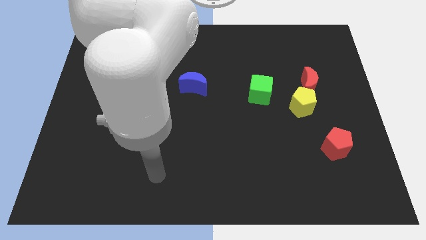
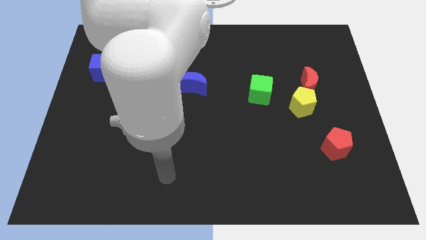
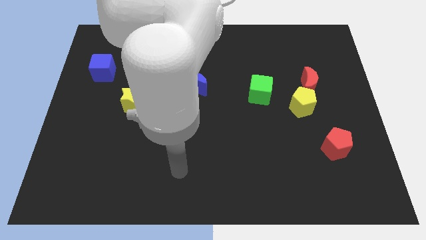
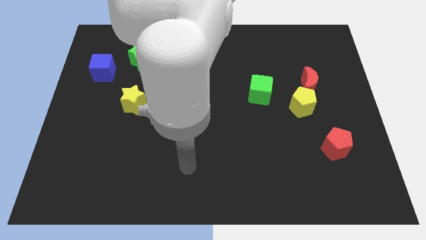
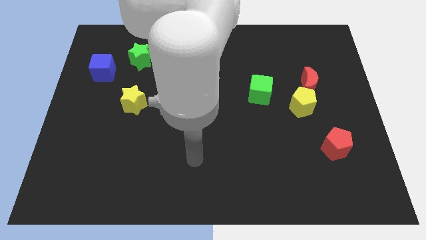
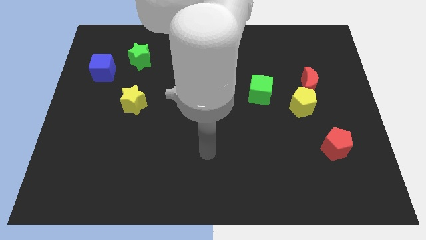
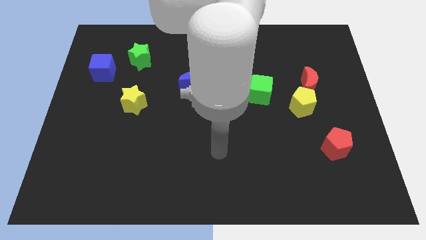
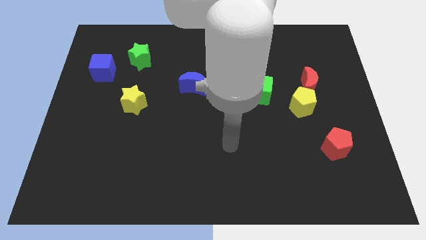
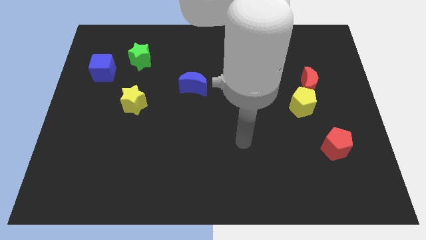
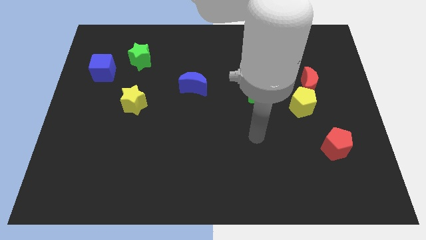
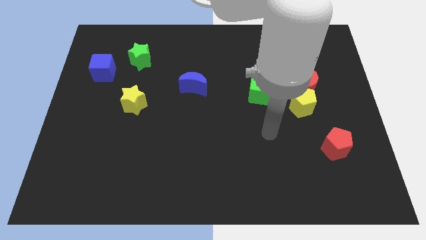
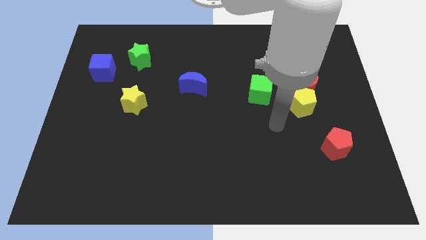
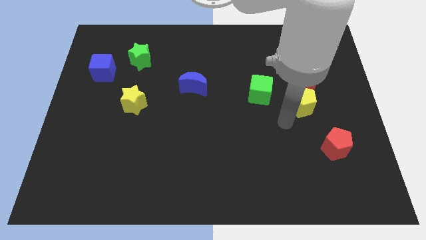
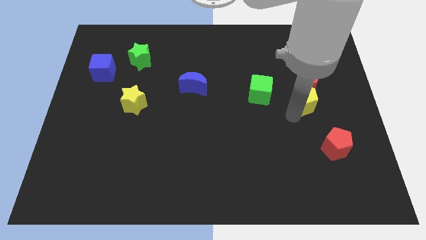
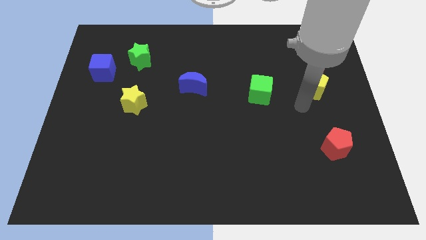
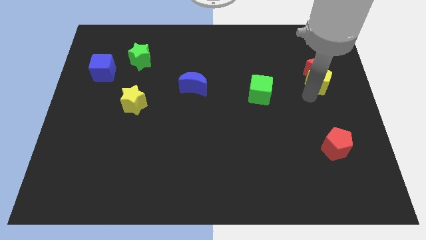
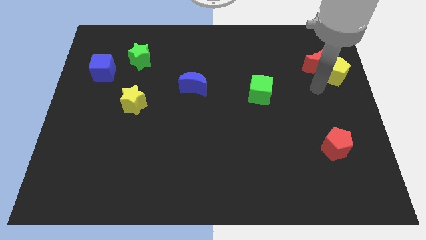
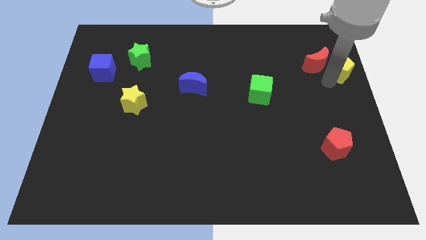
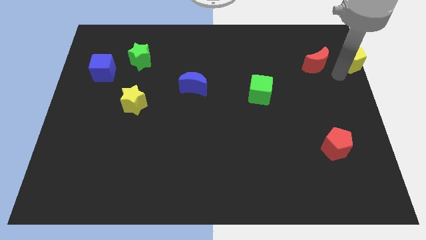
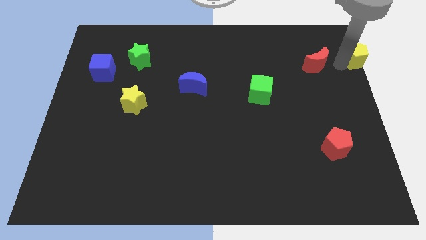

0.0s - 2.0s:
separate the red moon from the yellow pentagon

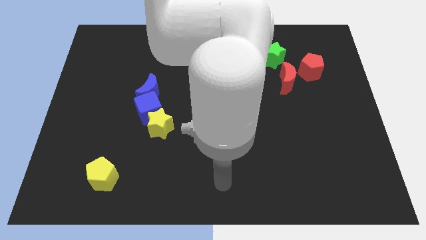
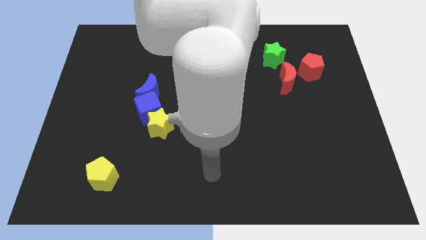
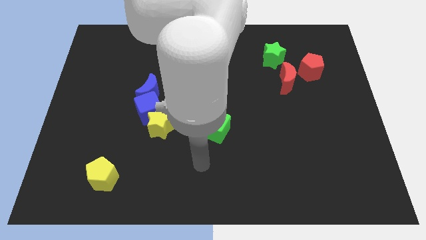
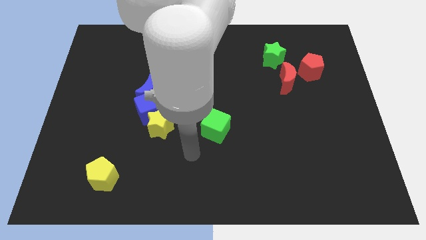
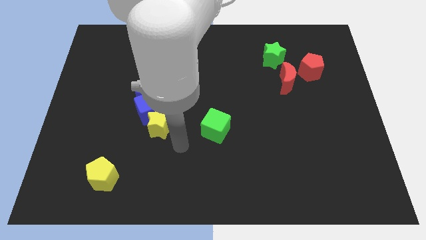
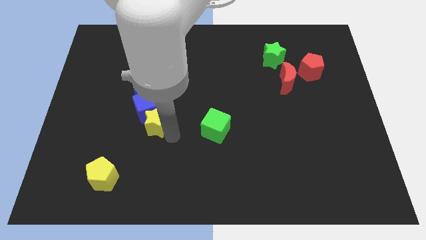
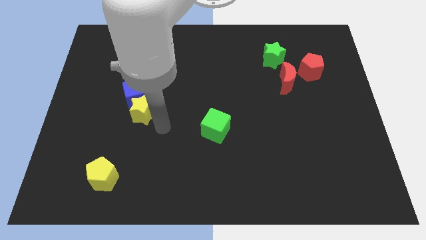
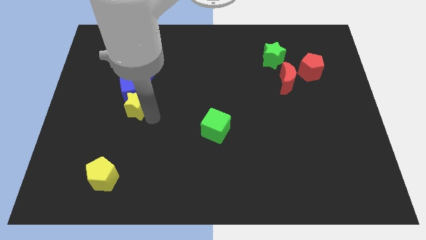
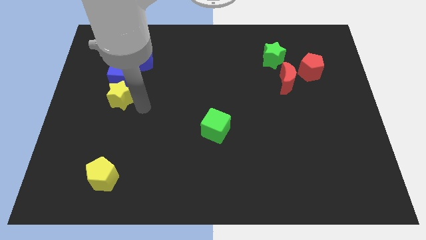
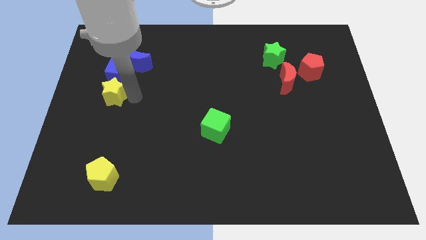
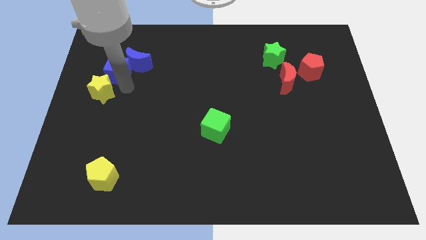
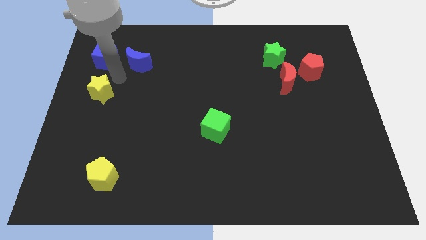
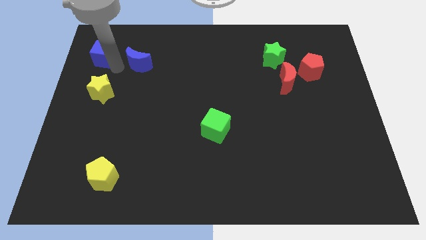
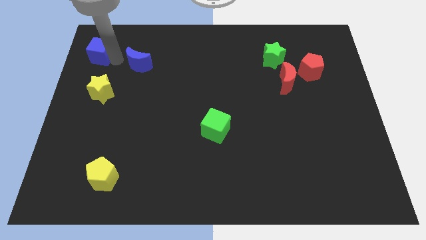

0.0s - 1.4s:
pull the blue moon apart from the blue cube

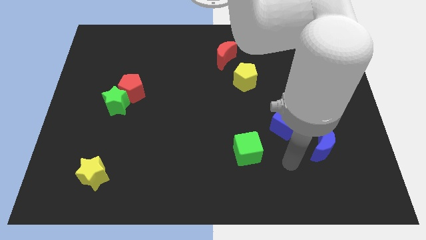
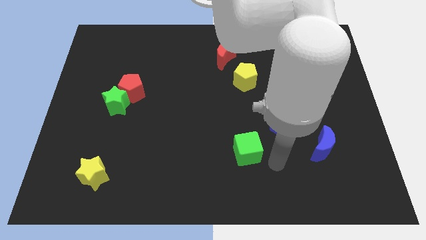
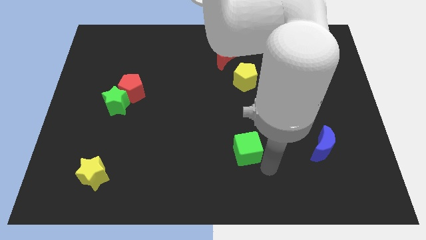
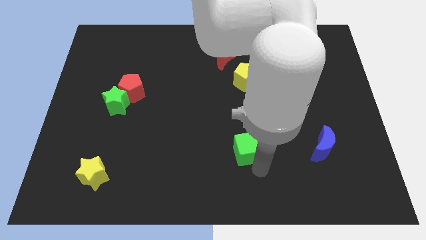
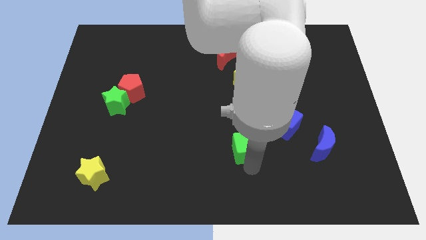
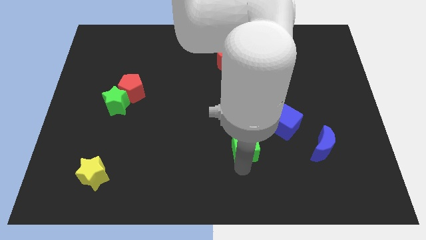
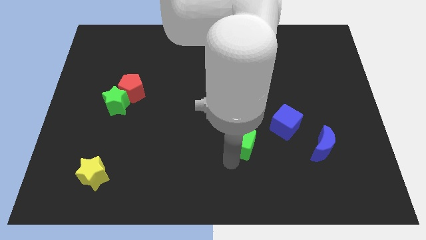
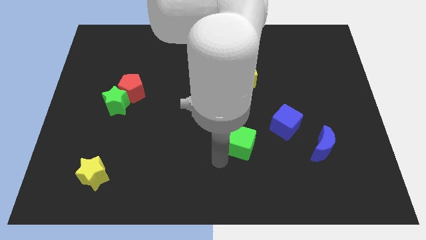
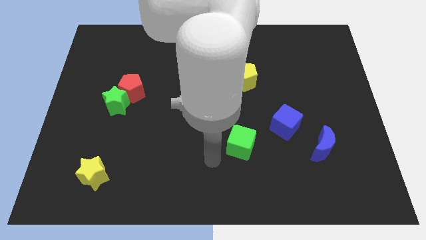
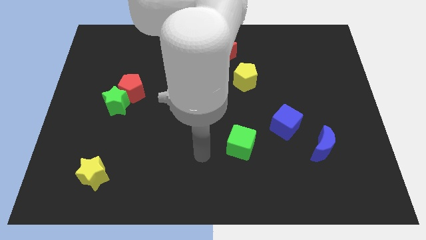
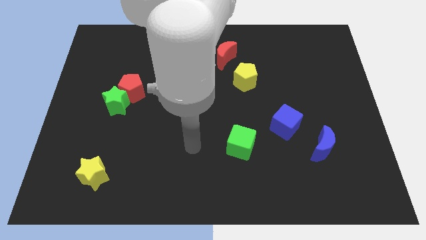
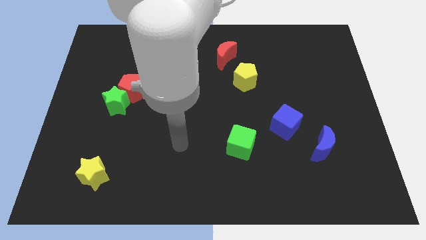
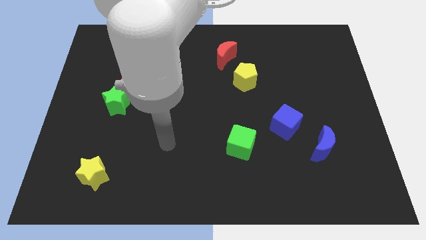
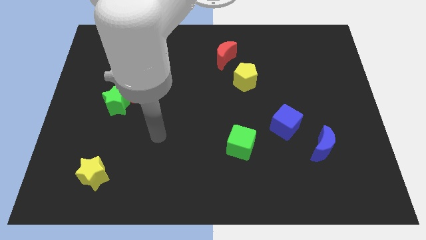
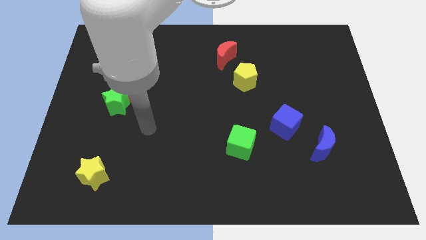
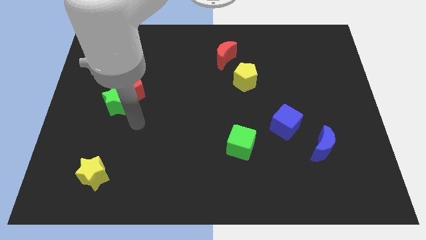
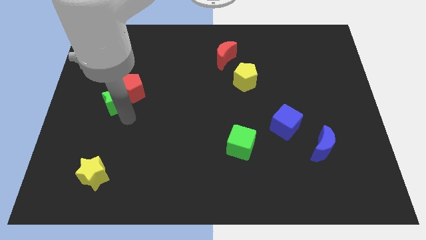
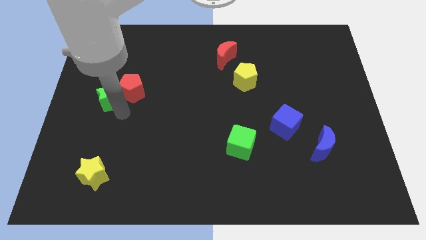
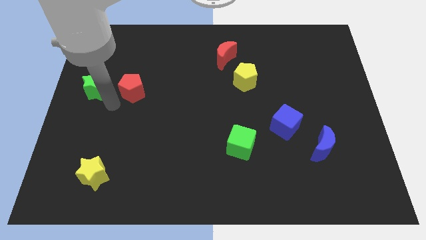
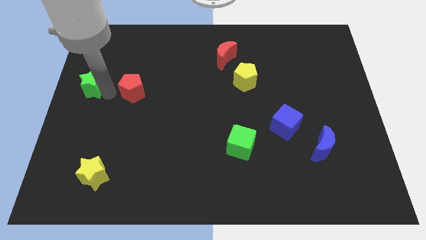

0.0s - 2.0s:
pull the red pentagon apart from the green star

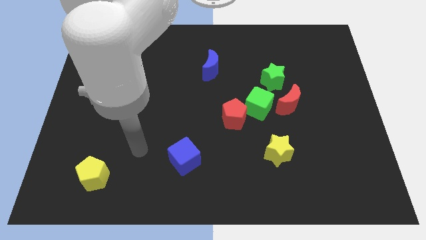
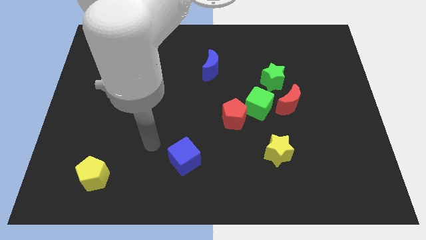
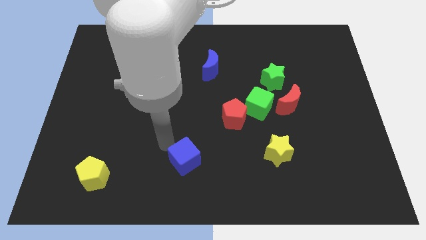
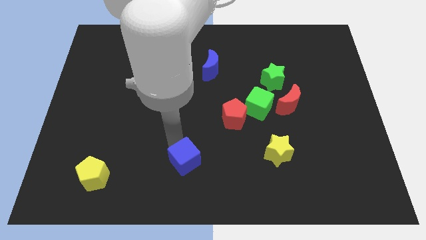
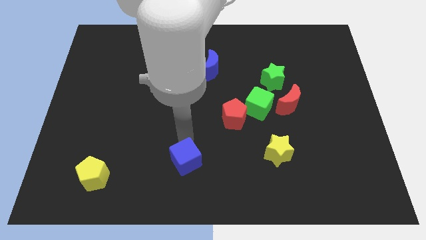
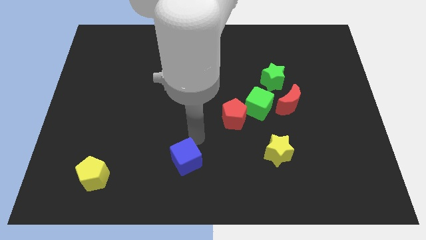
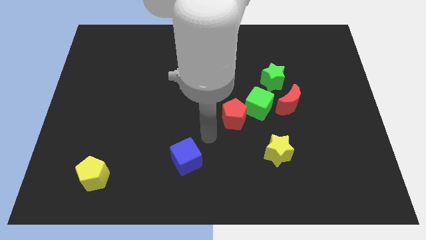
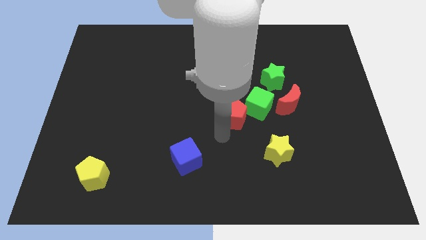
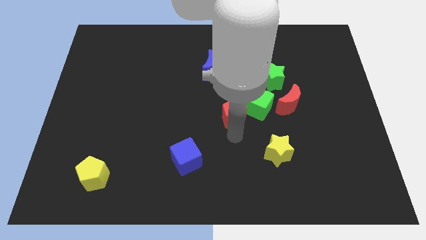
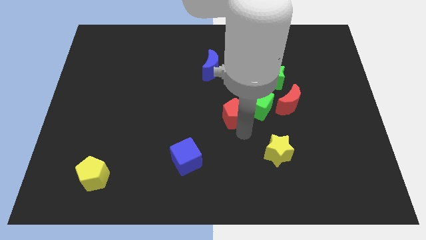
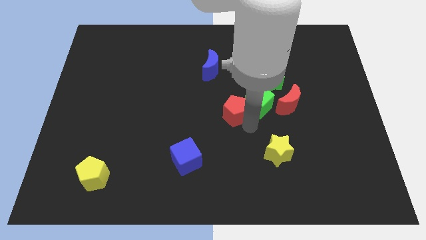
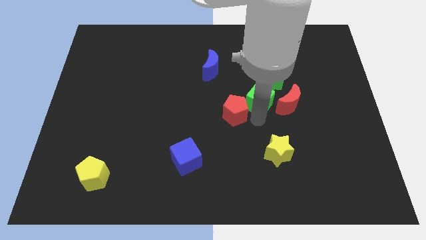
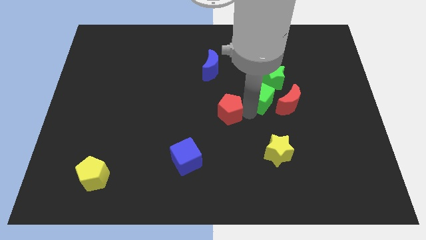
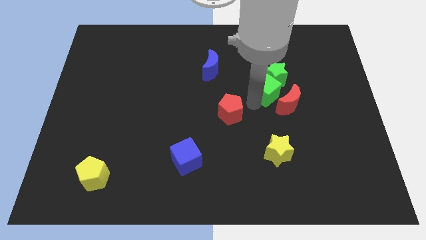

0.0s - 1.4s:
pull the red pentagon apart from the green cube

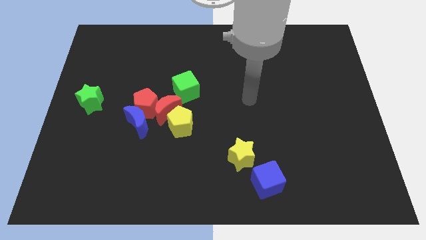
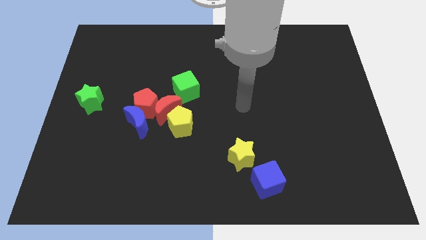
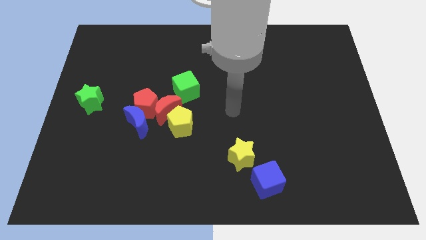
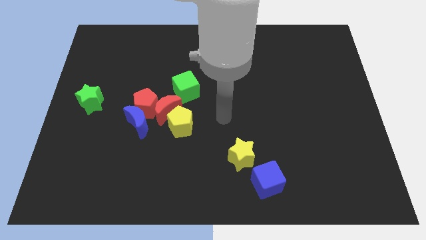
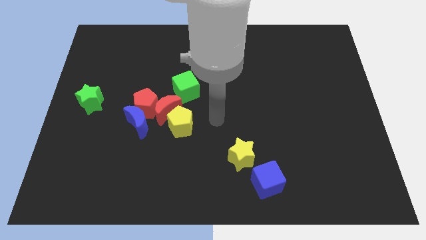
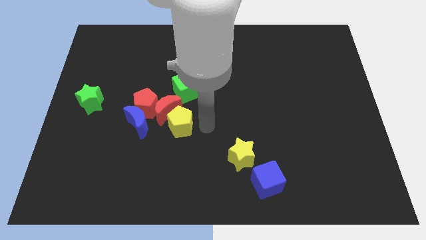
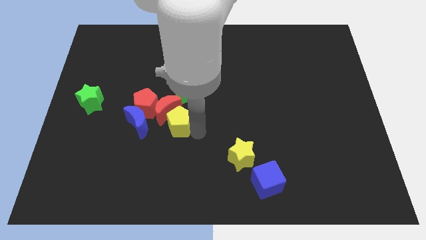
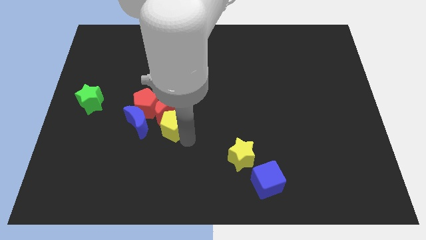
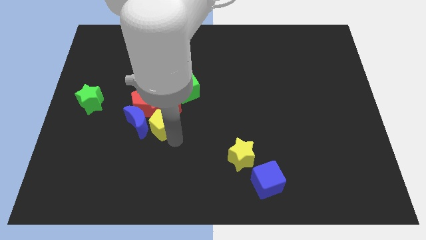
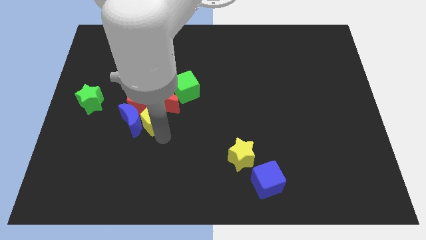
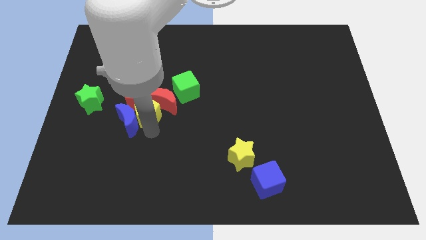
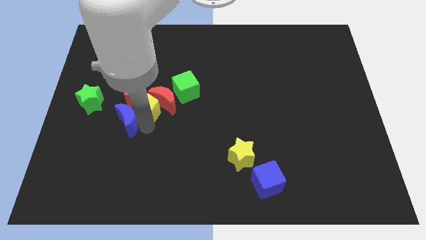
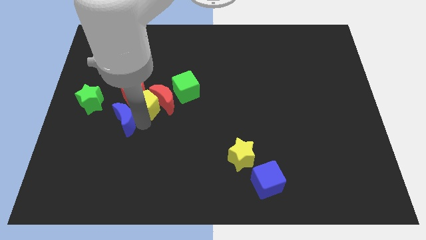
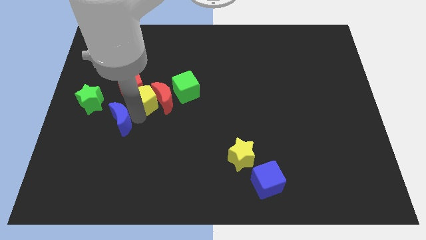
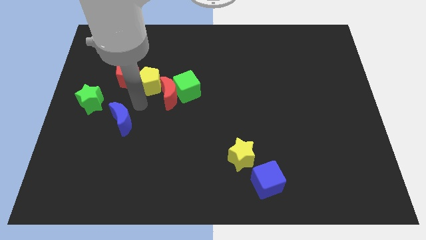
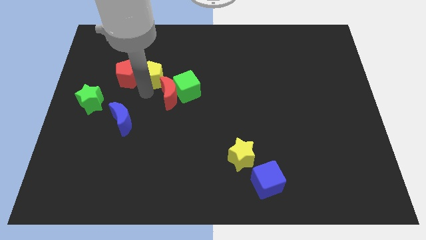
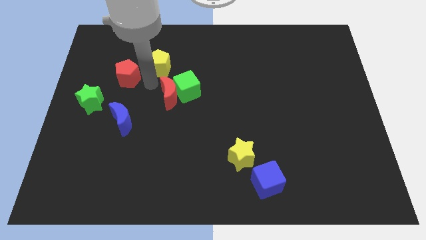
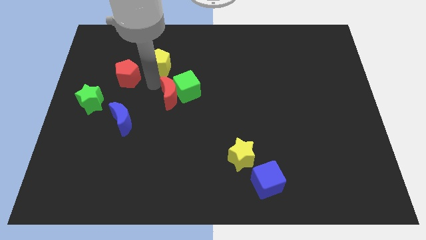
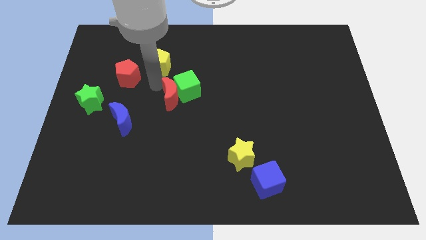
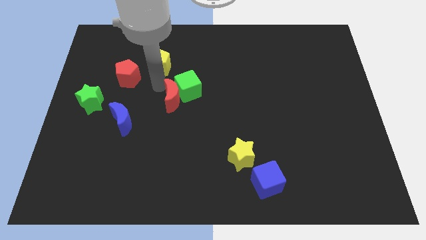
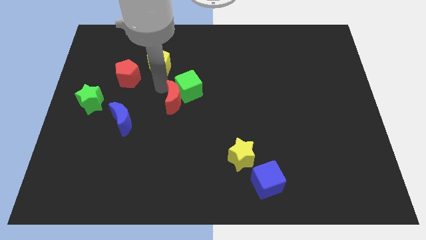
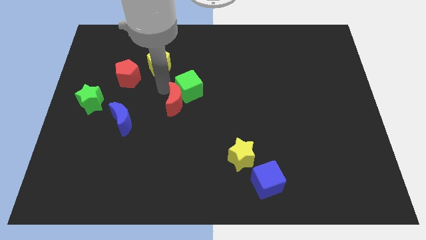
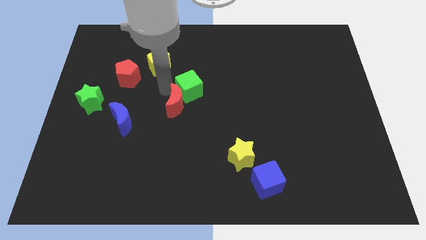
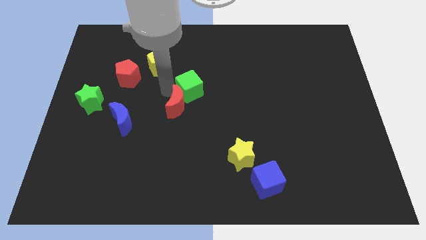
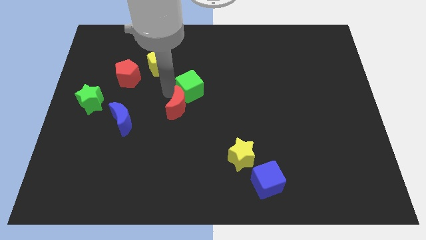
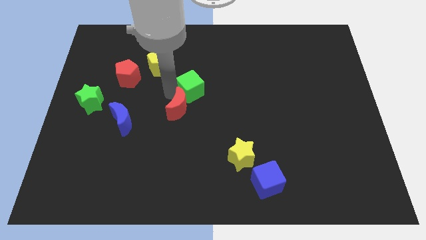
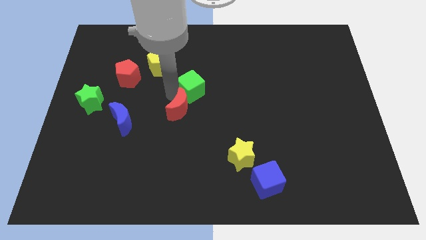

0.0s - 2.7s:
move the red moon away from the group of blocks
